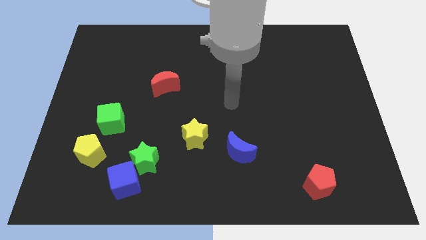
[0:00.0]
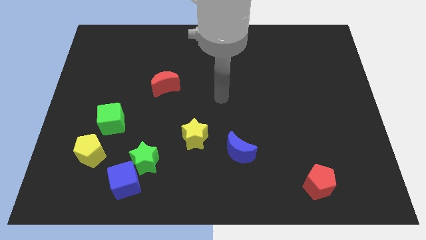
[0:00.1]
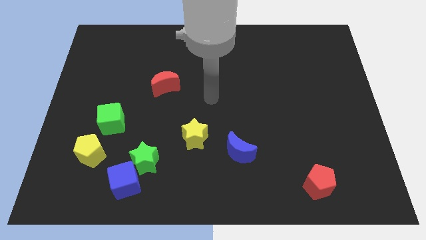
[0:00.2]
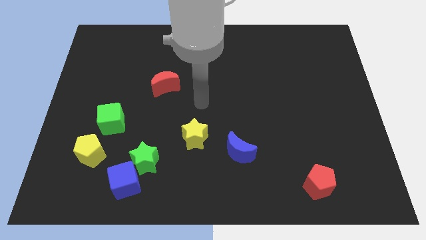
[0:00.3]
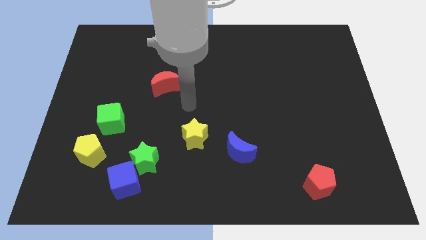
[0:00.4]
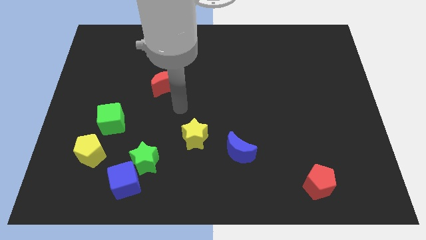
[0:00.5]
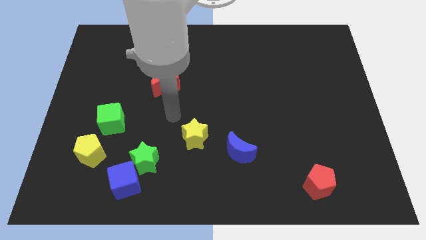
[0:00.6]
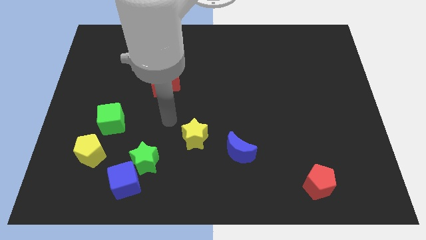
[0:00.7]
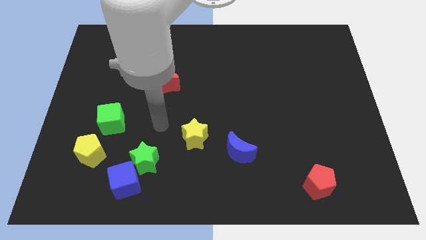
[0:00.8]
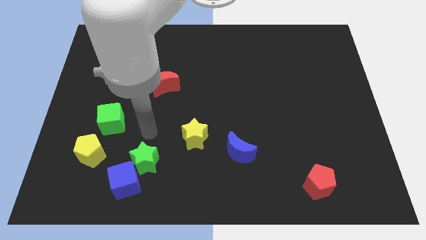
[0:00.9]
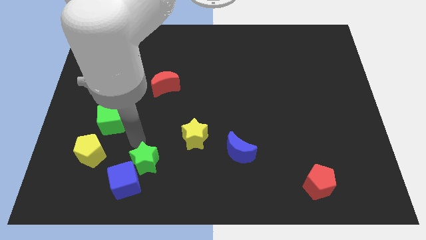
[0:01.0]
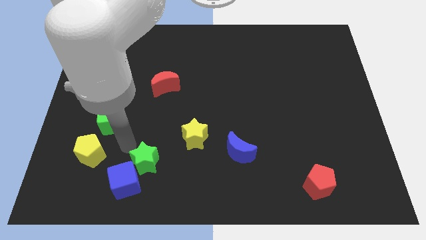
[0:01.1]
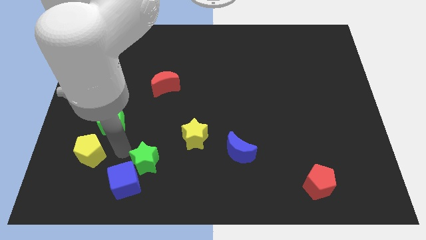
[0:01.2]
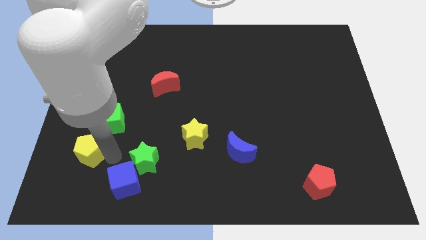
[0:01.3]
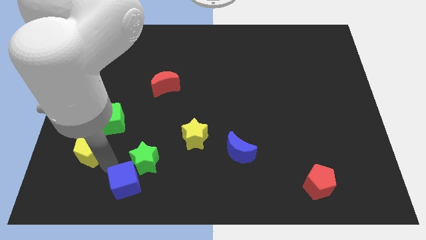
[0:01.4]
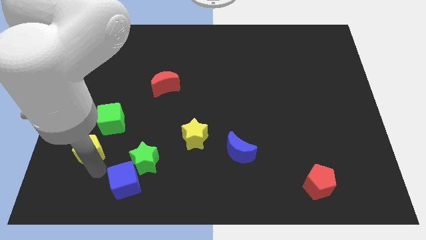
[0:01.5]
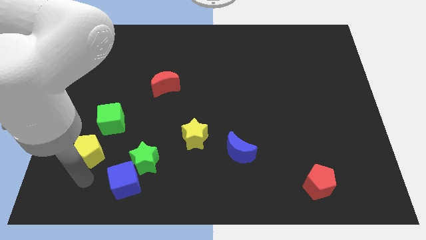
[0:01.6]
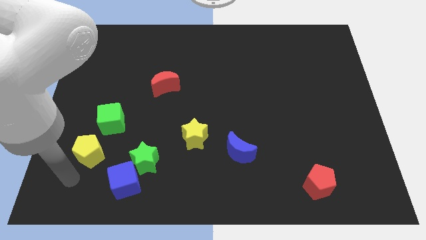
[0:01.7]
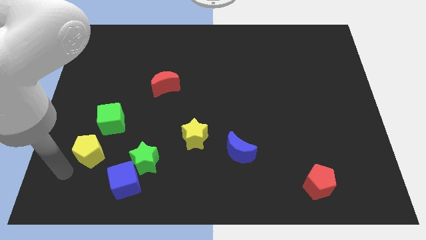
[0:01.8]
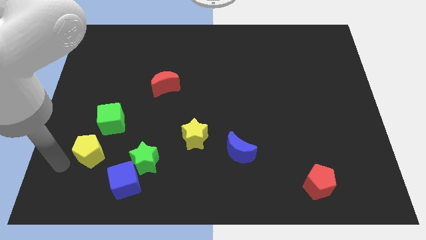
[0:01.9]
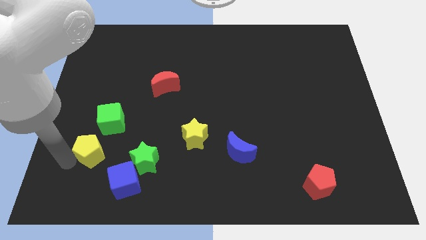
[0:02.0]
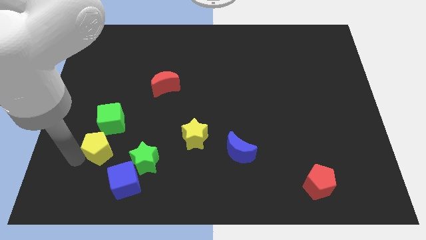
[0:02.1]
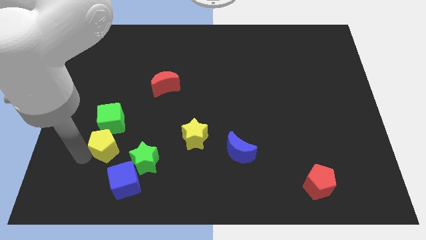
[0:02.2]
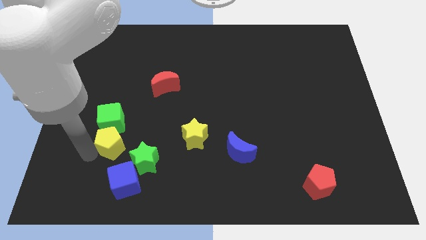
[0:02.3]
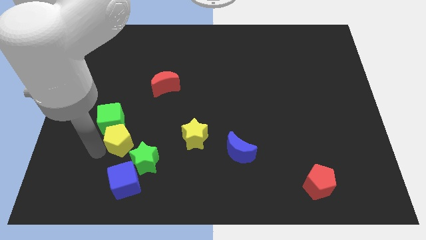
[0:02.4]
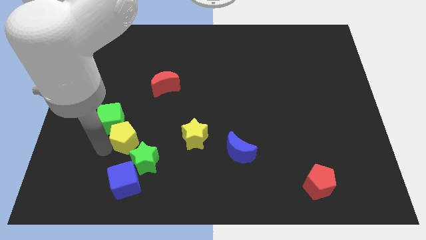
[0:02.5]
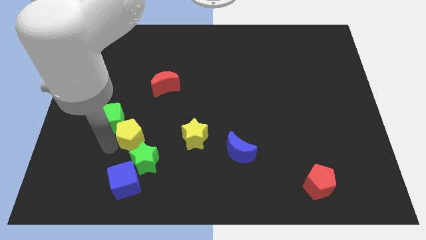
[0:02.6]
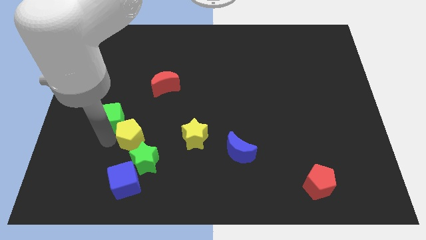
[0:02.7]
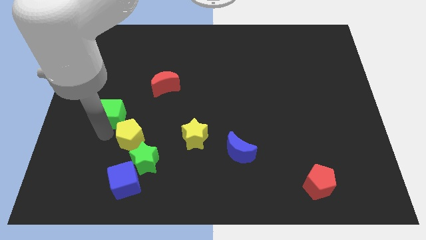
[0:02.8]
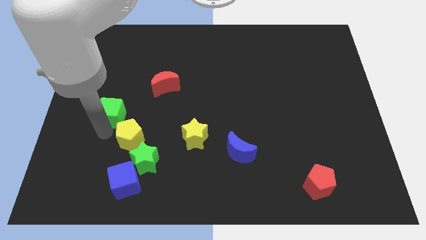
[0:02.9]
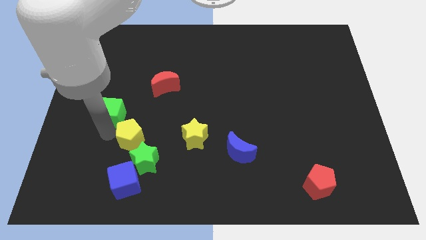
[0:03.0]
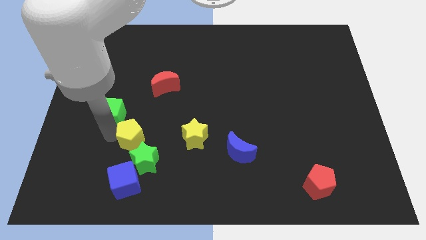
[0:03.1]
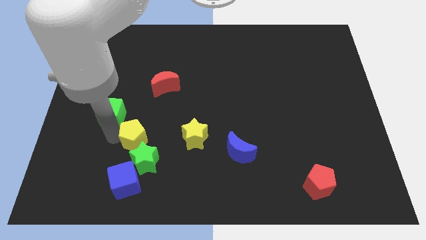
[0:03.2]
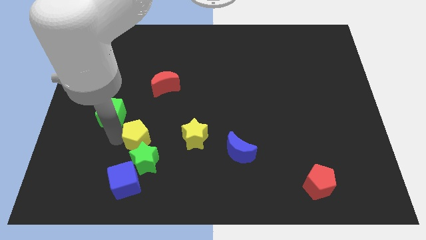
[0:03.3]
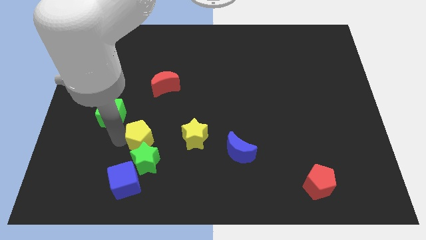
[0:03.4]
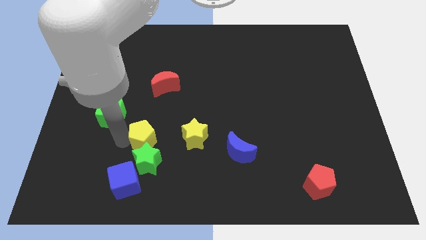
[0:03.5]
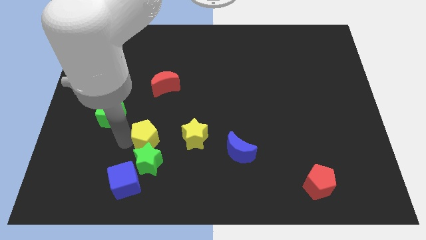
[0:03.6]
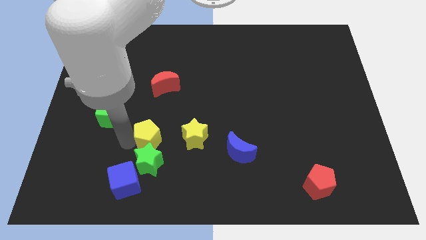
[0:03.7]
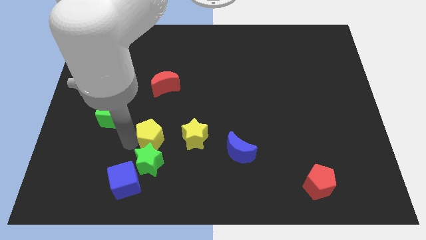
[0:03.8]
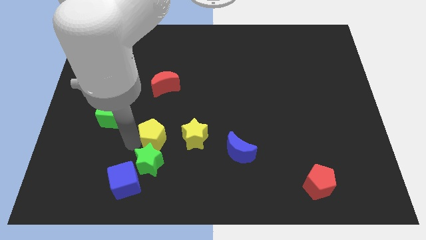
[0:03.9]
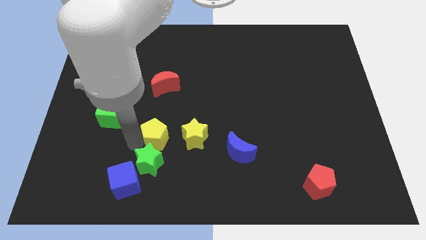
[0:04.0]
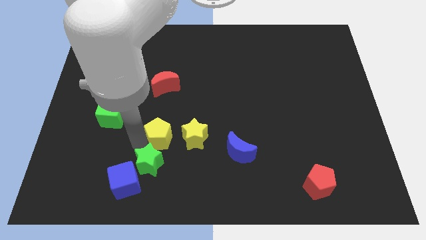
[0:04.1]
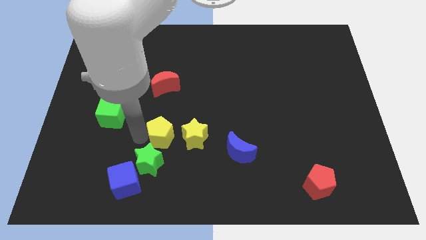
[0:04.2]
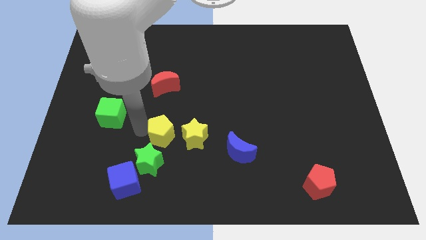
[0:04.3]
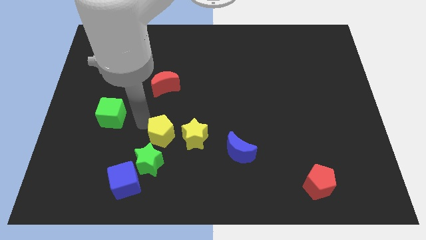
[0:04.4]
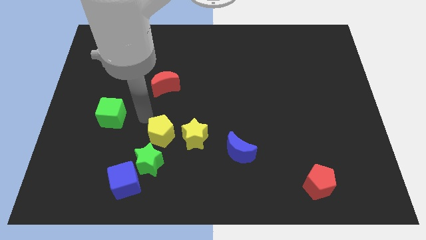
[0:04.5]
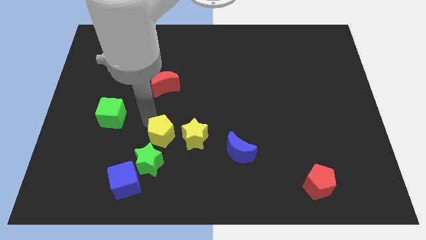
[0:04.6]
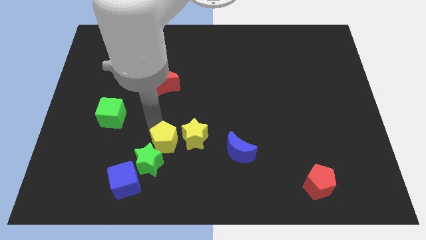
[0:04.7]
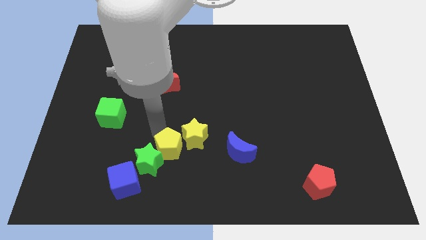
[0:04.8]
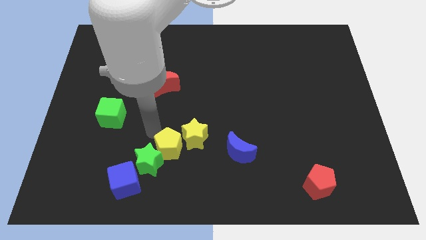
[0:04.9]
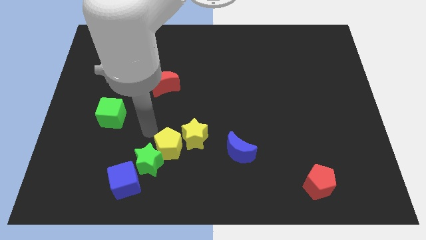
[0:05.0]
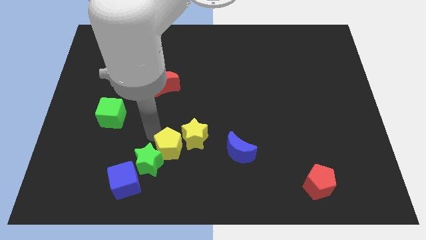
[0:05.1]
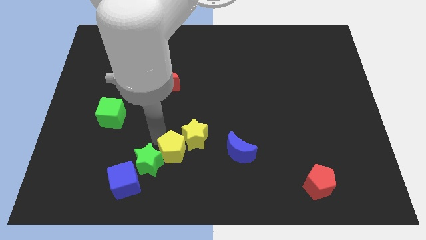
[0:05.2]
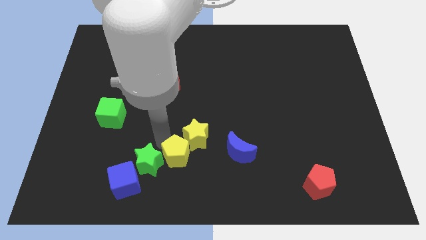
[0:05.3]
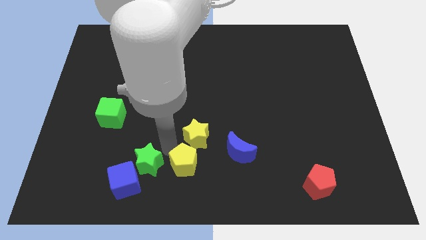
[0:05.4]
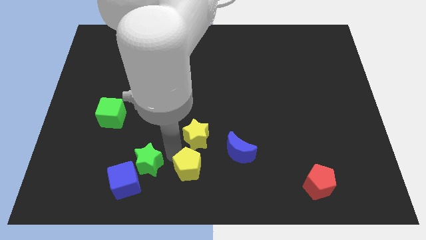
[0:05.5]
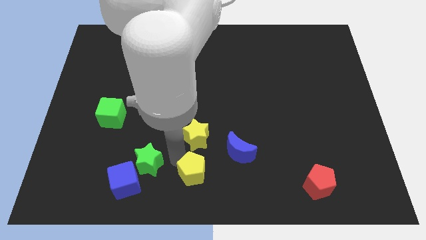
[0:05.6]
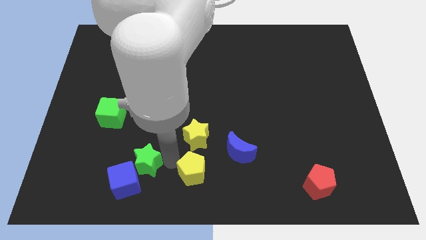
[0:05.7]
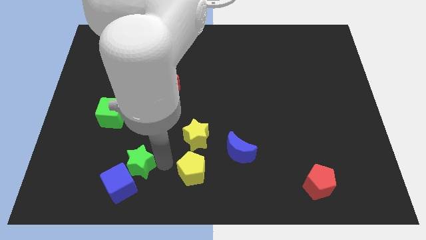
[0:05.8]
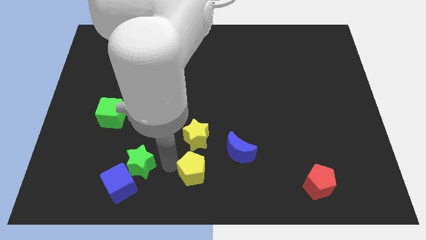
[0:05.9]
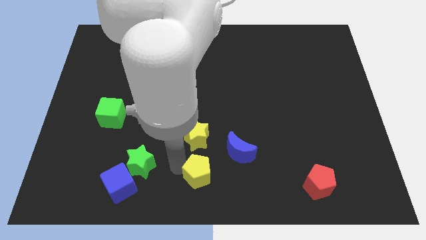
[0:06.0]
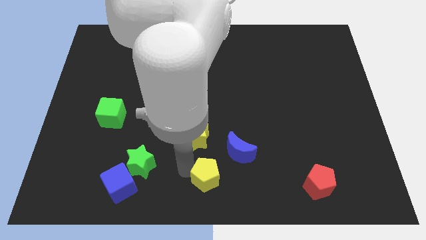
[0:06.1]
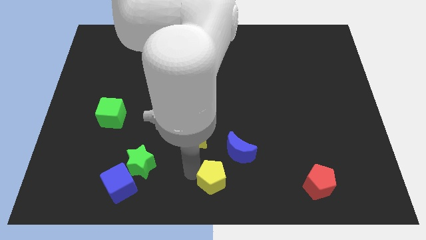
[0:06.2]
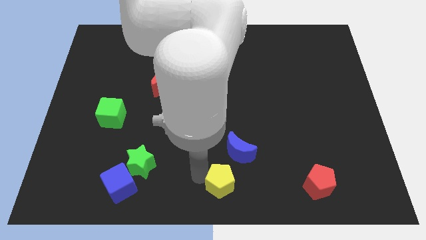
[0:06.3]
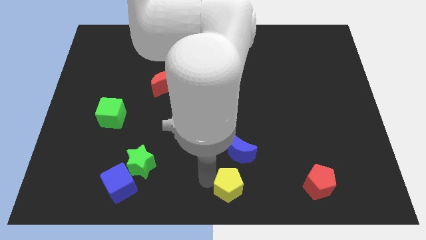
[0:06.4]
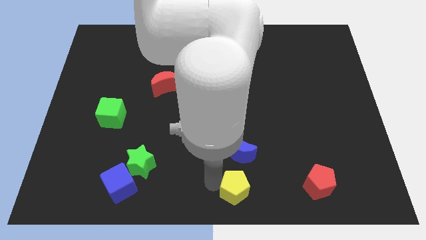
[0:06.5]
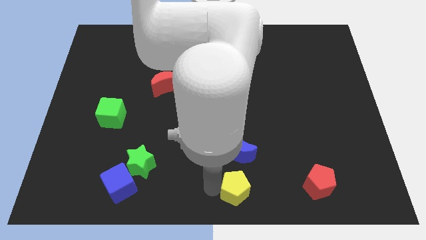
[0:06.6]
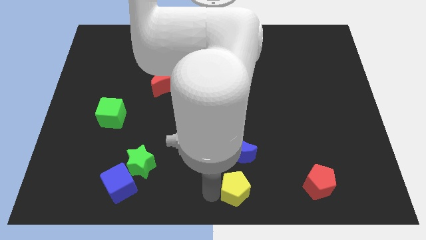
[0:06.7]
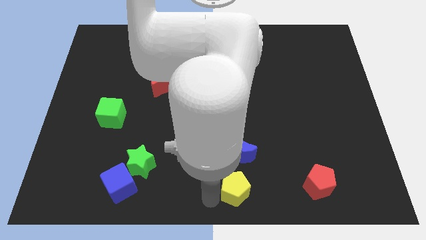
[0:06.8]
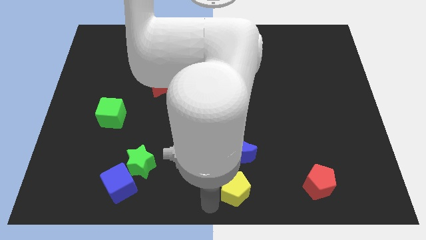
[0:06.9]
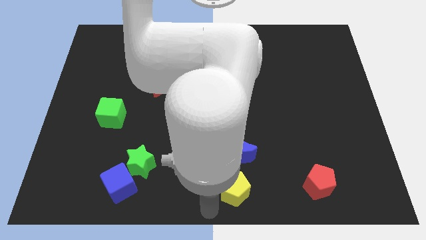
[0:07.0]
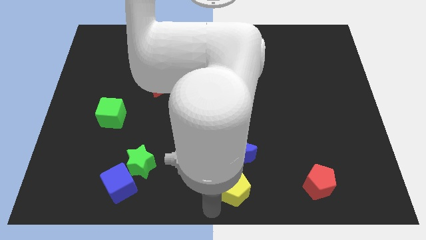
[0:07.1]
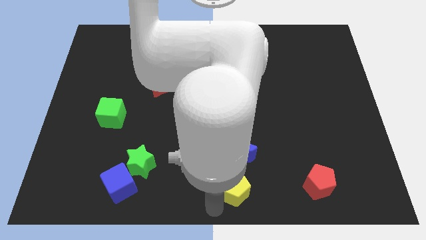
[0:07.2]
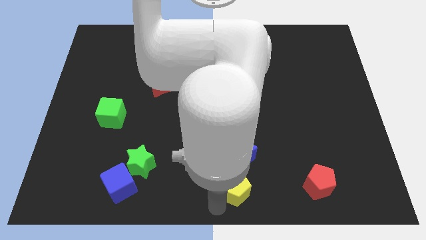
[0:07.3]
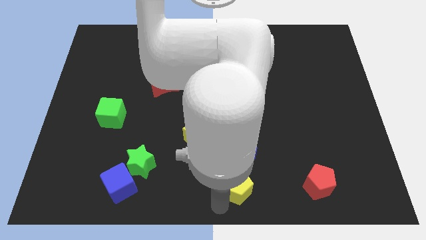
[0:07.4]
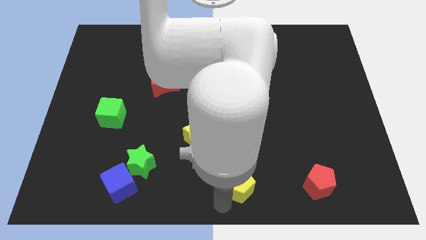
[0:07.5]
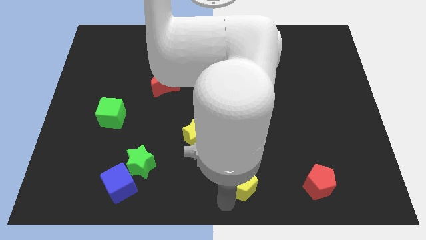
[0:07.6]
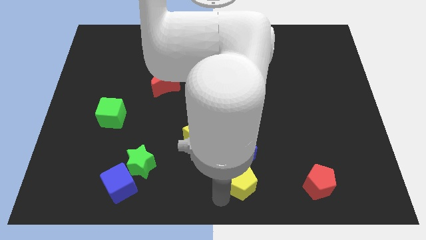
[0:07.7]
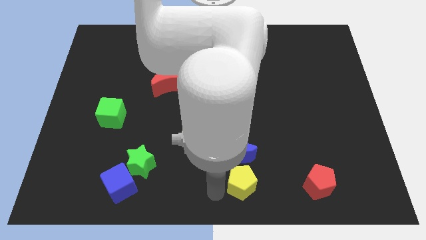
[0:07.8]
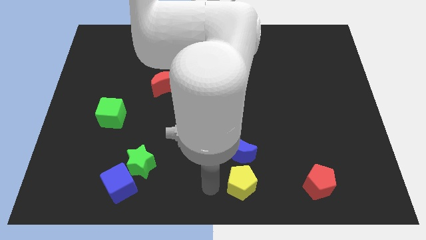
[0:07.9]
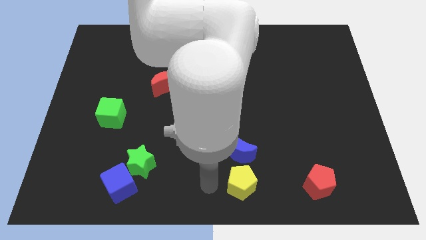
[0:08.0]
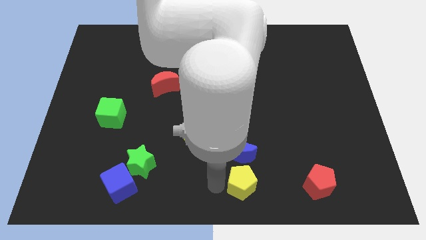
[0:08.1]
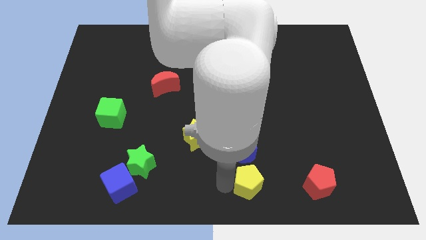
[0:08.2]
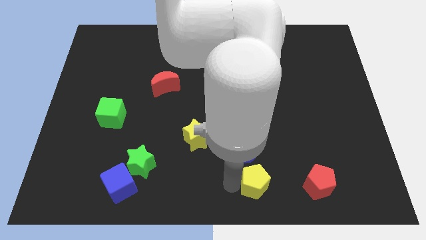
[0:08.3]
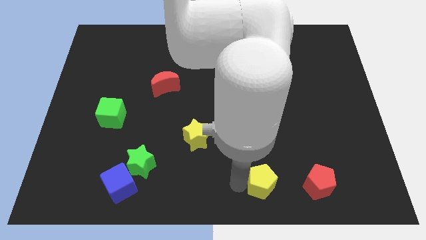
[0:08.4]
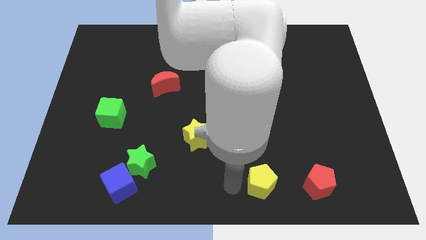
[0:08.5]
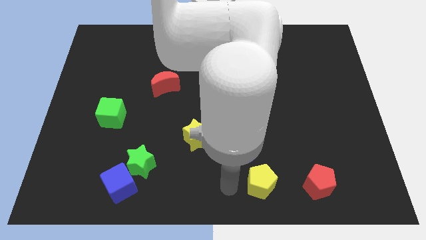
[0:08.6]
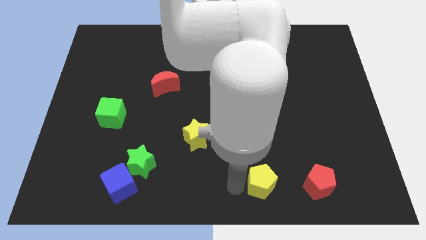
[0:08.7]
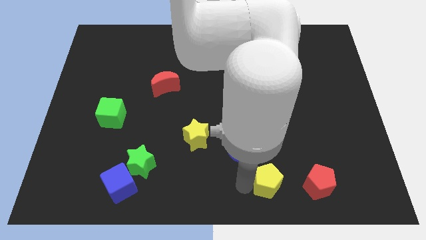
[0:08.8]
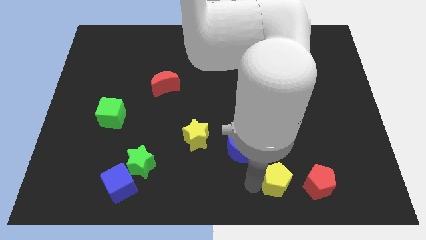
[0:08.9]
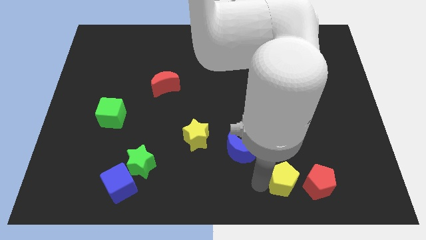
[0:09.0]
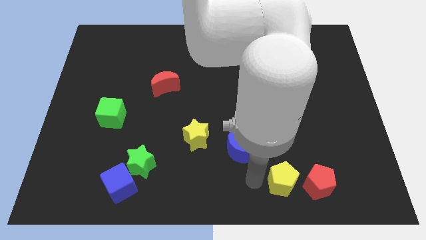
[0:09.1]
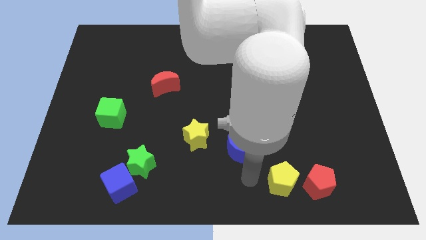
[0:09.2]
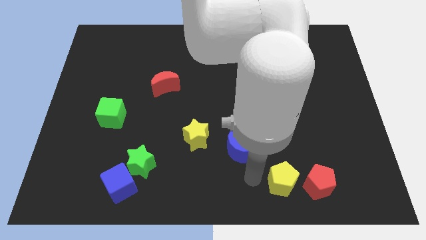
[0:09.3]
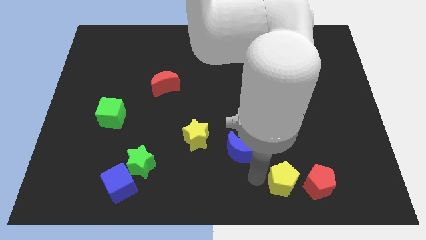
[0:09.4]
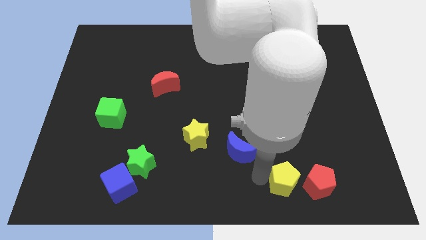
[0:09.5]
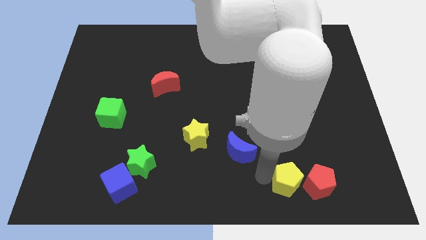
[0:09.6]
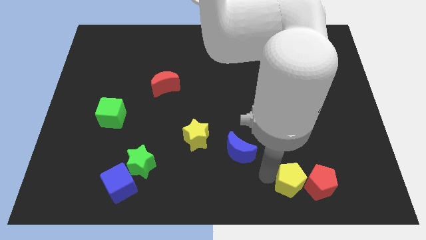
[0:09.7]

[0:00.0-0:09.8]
put the yellow pentagon close to the red pentagon
